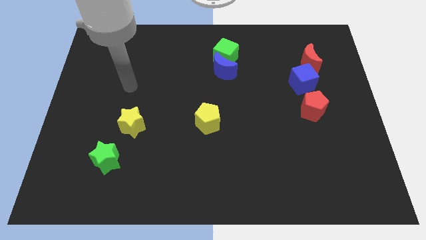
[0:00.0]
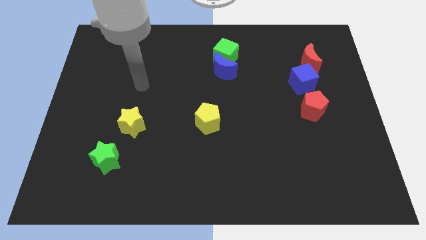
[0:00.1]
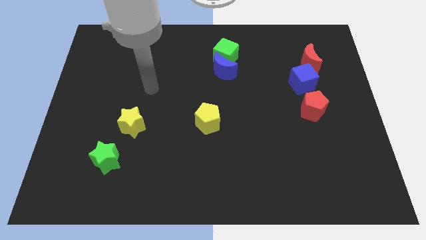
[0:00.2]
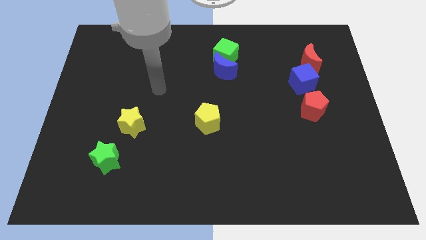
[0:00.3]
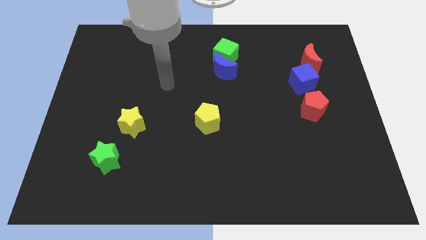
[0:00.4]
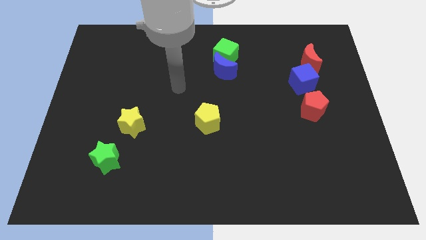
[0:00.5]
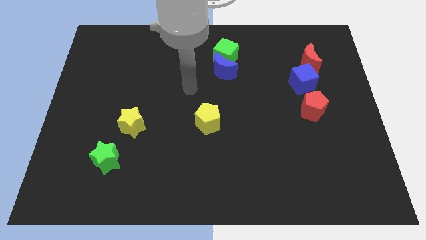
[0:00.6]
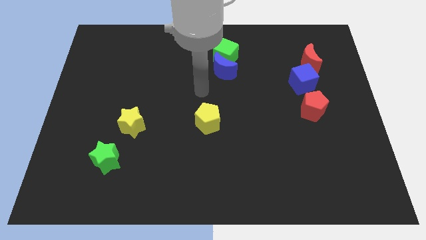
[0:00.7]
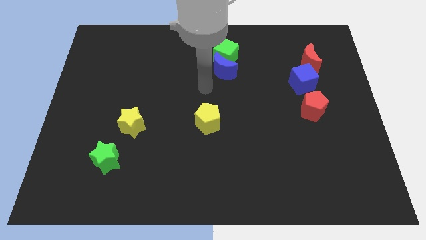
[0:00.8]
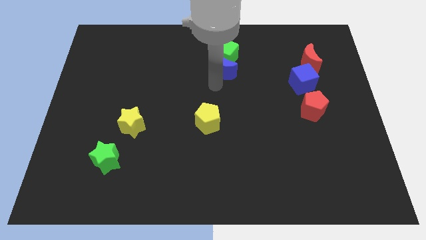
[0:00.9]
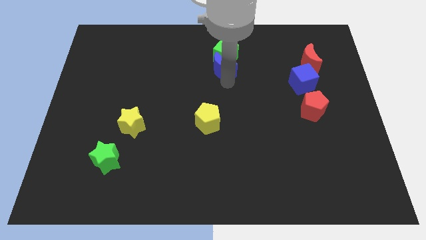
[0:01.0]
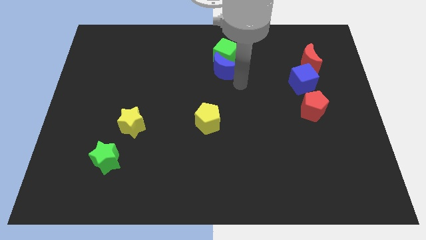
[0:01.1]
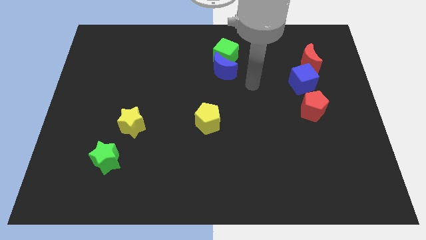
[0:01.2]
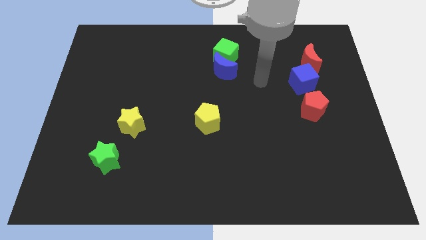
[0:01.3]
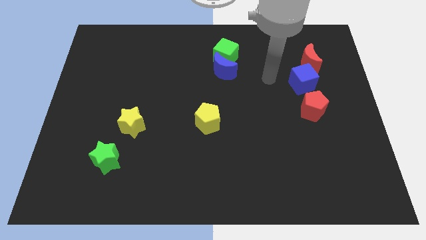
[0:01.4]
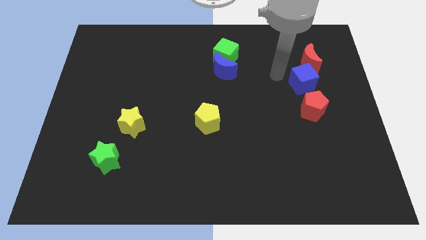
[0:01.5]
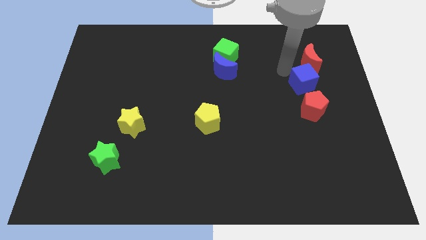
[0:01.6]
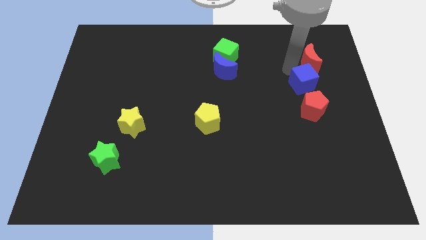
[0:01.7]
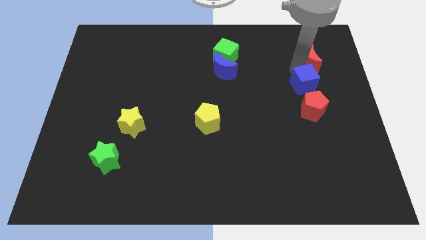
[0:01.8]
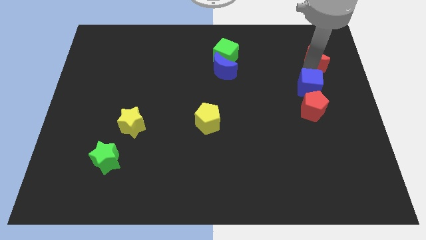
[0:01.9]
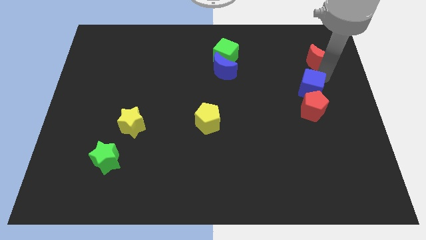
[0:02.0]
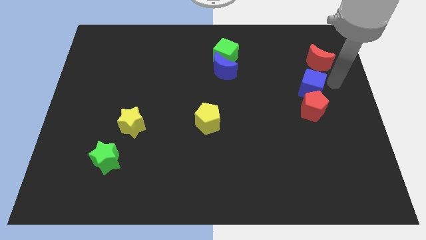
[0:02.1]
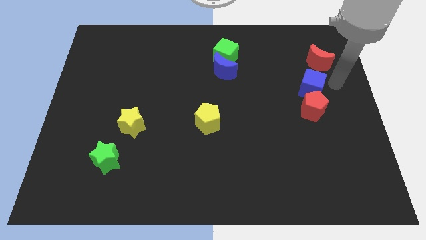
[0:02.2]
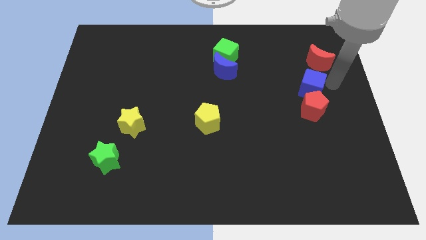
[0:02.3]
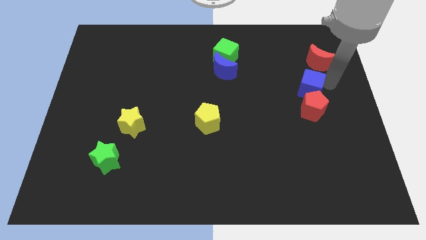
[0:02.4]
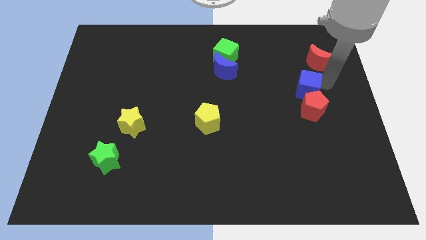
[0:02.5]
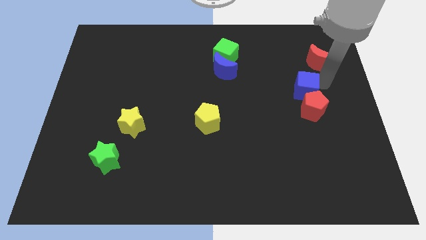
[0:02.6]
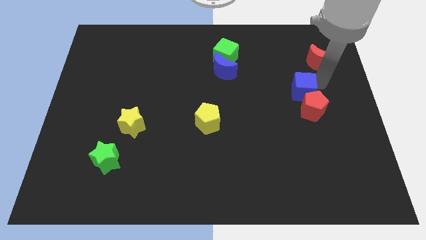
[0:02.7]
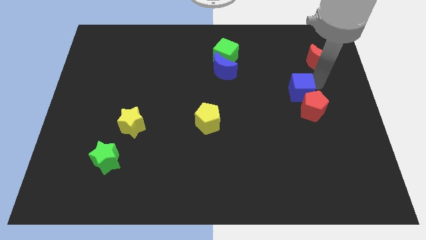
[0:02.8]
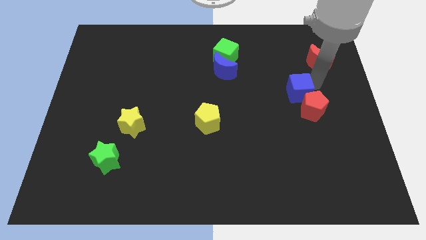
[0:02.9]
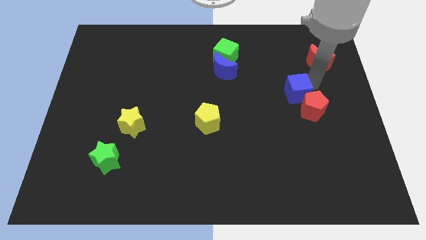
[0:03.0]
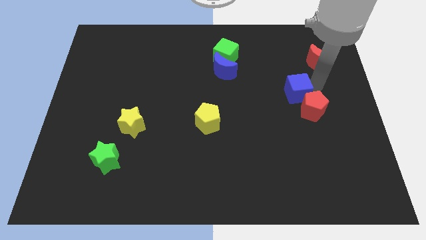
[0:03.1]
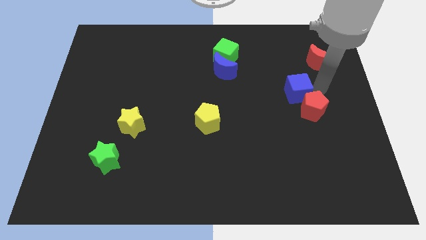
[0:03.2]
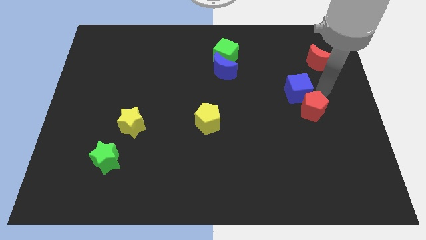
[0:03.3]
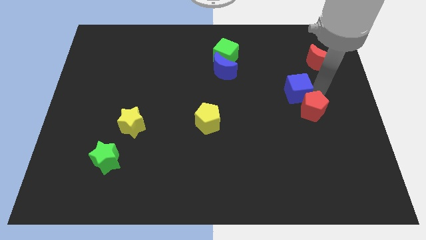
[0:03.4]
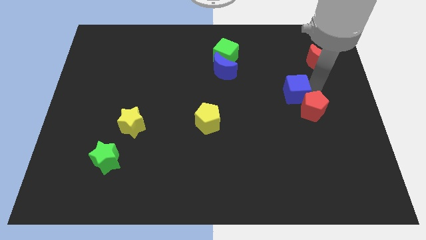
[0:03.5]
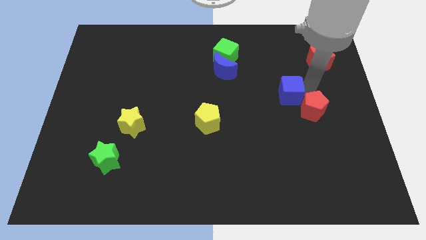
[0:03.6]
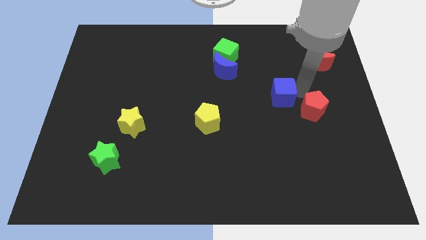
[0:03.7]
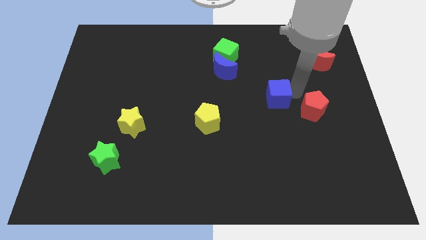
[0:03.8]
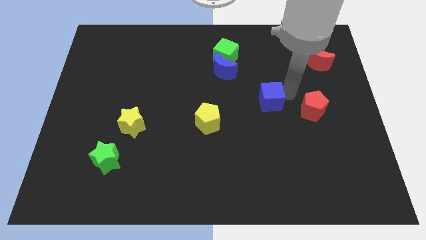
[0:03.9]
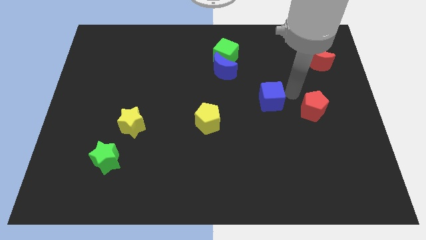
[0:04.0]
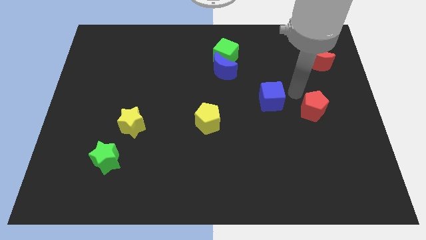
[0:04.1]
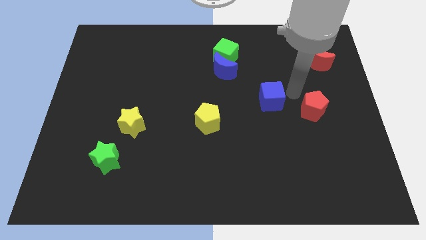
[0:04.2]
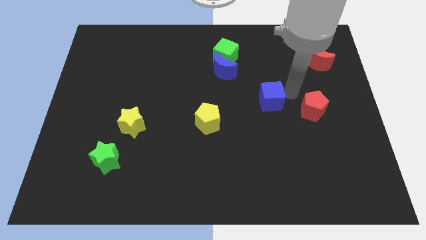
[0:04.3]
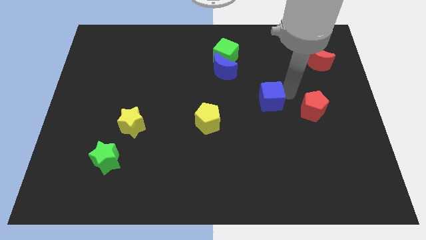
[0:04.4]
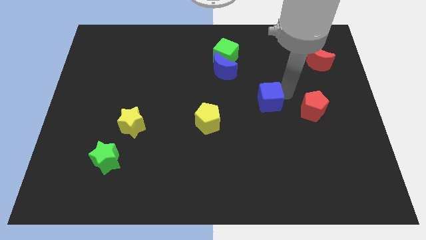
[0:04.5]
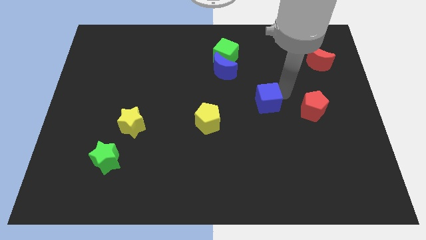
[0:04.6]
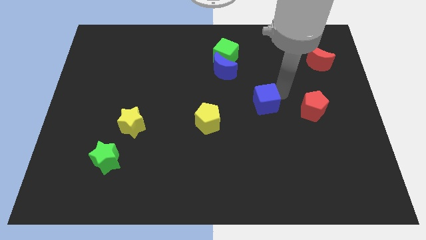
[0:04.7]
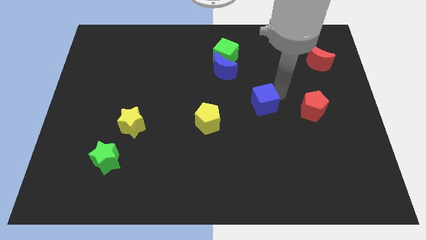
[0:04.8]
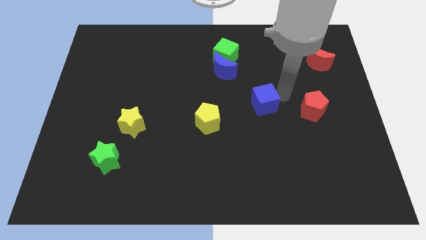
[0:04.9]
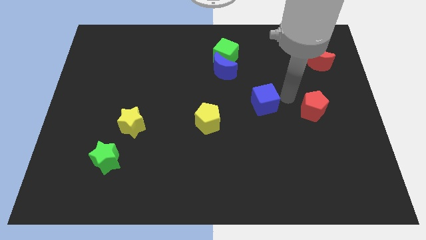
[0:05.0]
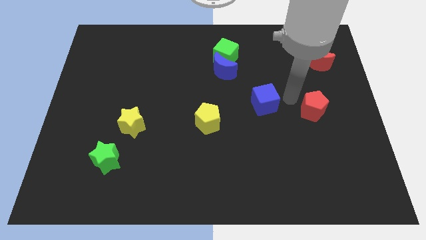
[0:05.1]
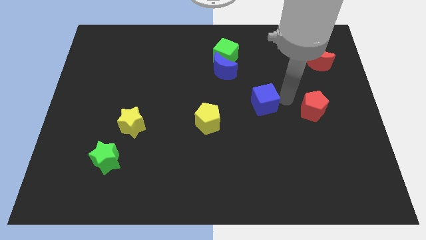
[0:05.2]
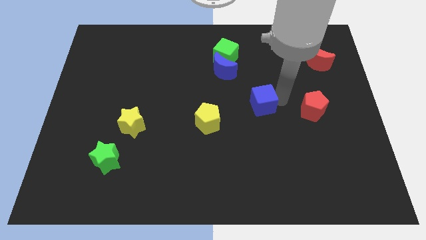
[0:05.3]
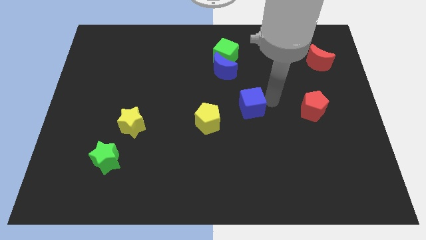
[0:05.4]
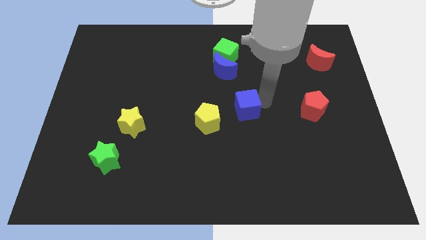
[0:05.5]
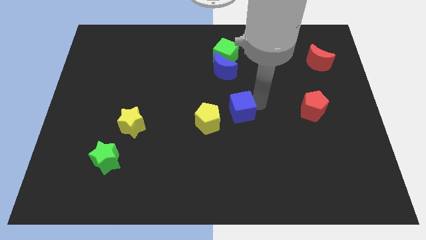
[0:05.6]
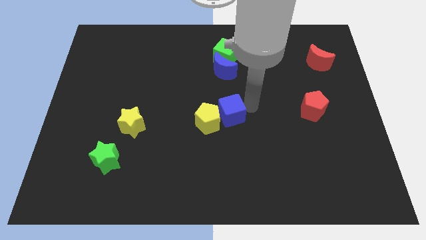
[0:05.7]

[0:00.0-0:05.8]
slide the blue cube to the yellow pentagon

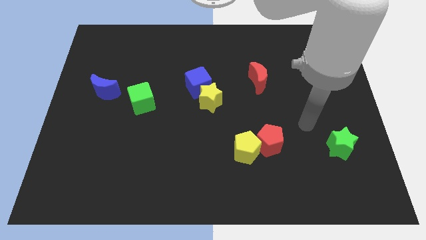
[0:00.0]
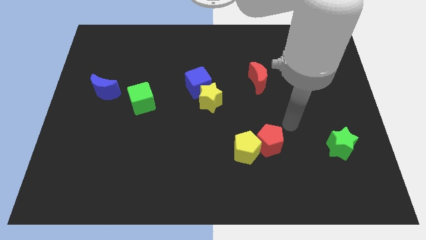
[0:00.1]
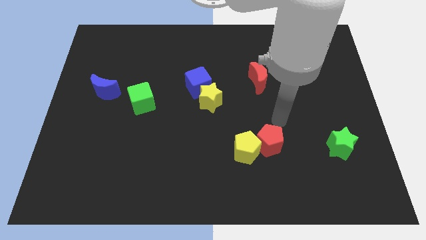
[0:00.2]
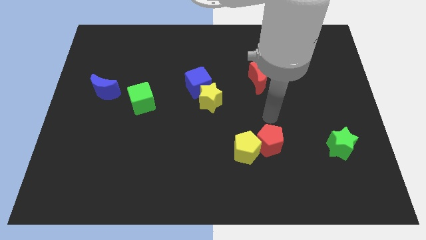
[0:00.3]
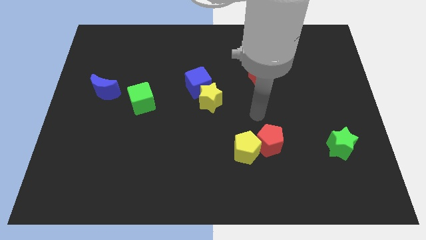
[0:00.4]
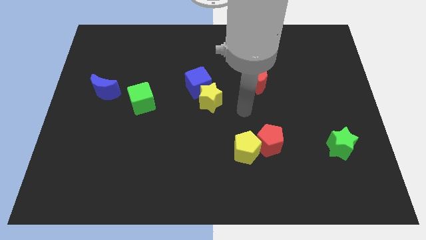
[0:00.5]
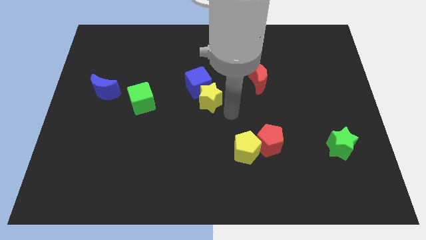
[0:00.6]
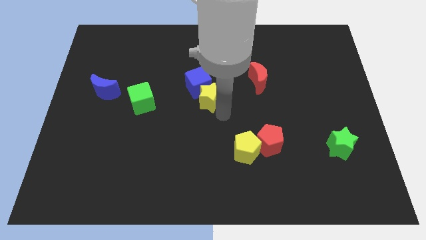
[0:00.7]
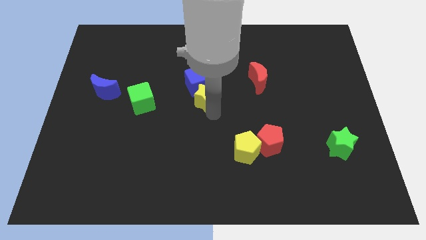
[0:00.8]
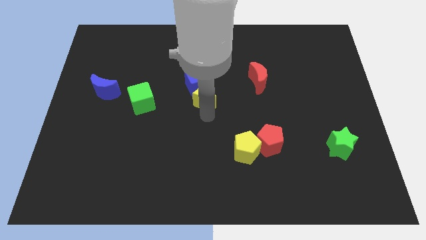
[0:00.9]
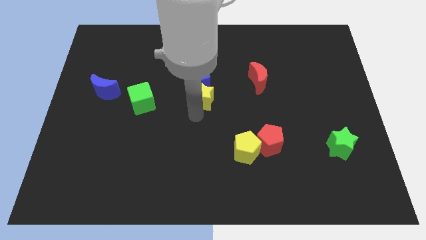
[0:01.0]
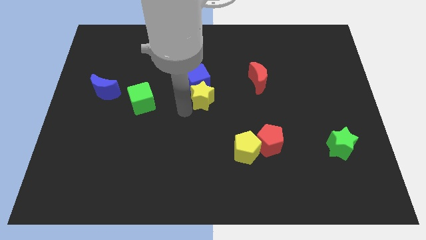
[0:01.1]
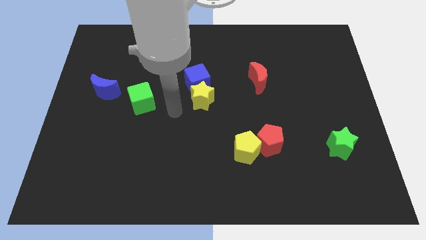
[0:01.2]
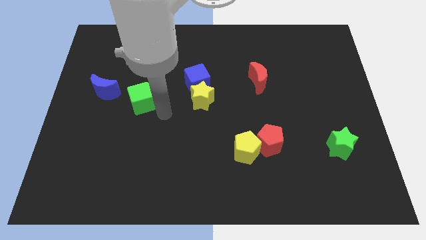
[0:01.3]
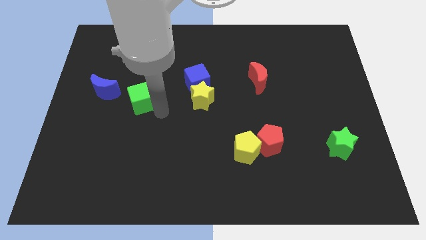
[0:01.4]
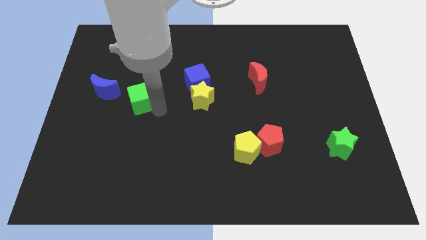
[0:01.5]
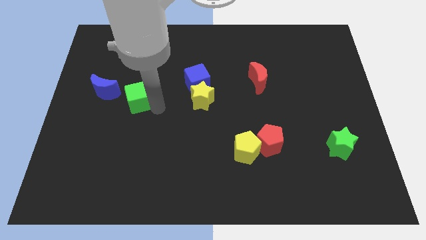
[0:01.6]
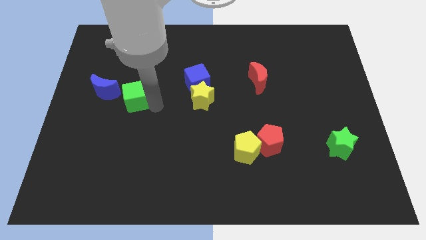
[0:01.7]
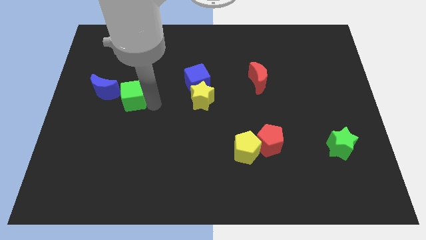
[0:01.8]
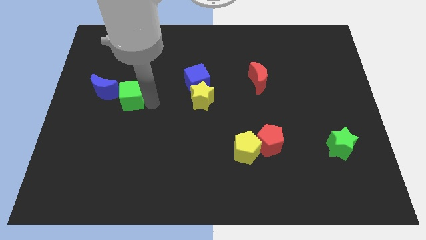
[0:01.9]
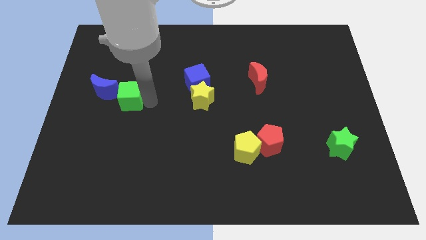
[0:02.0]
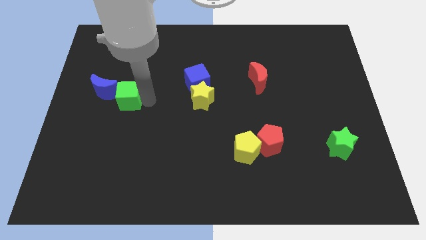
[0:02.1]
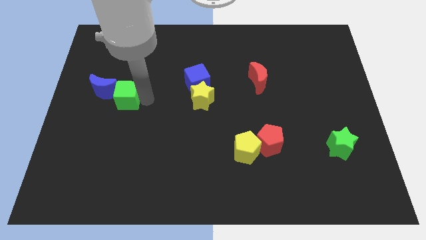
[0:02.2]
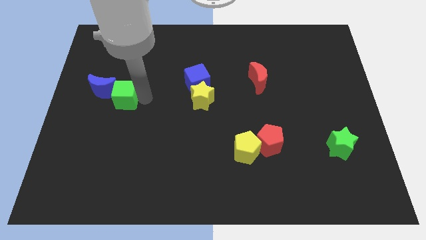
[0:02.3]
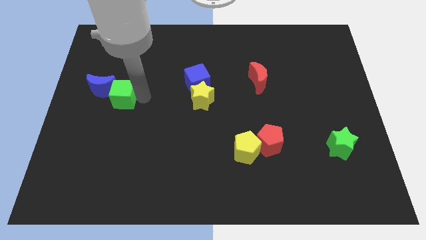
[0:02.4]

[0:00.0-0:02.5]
slide the green cube next to the blue moon
